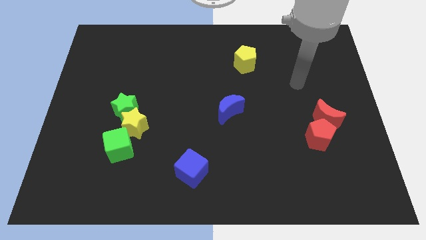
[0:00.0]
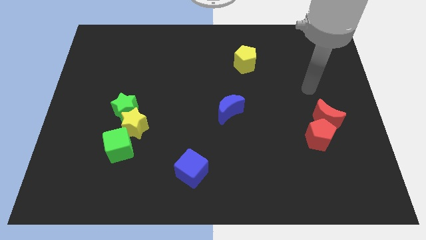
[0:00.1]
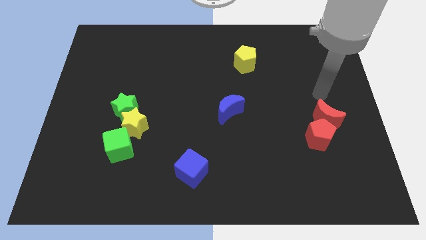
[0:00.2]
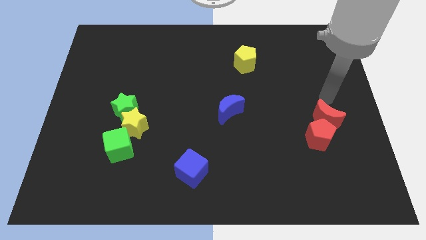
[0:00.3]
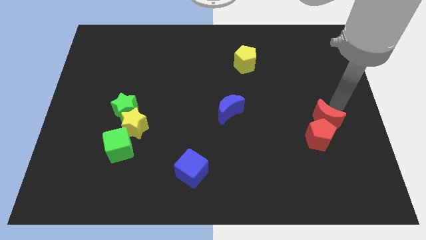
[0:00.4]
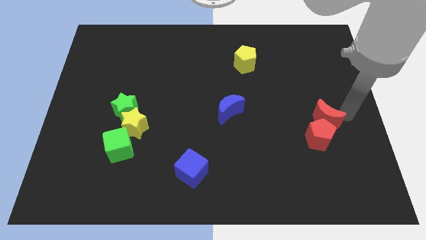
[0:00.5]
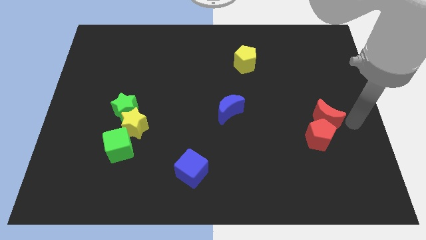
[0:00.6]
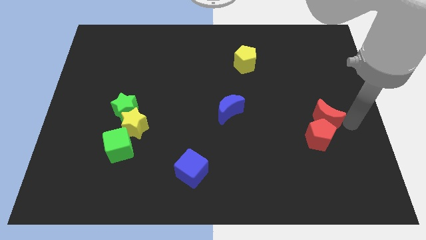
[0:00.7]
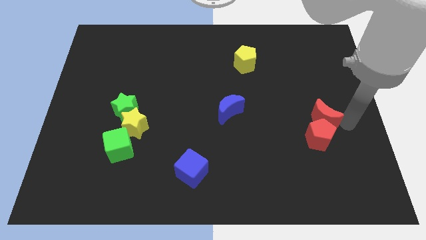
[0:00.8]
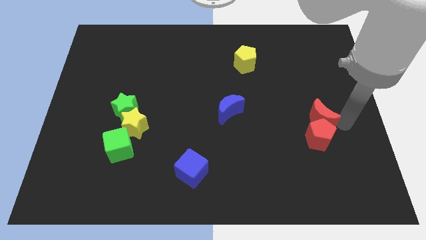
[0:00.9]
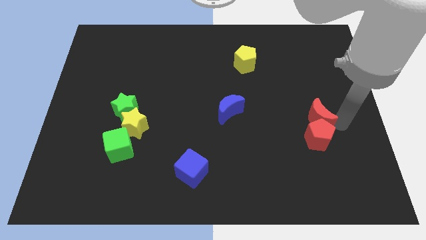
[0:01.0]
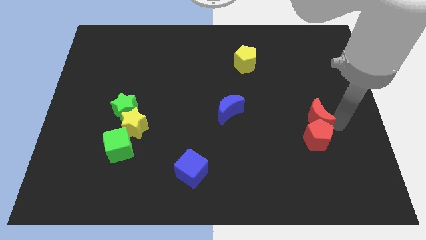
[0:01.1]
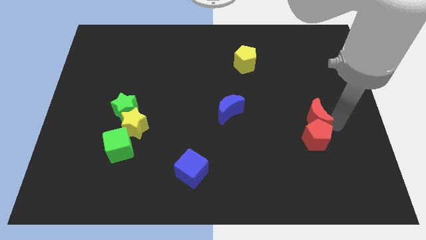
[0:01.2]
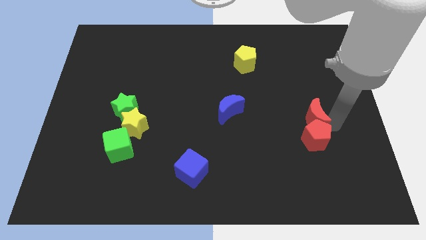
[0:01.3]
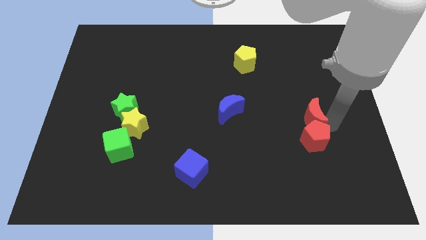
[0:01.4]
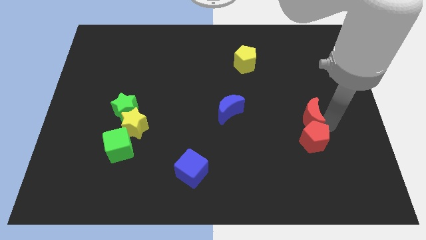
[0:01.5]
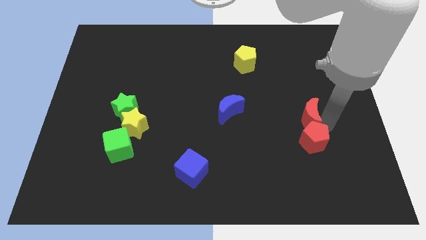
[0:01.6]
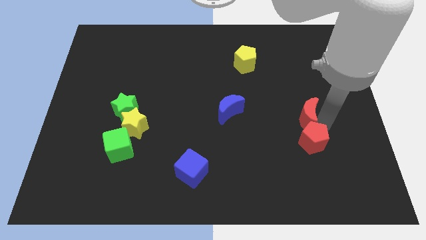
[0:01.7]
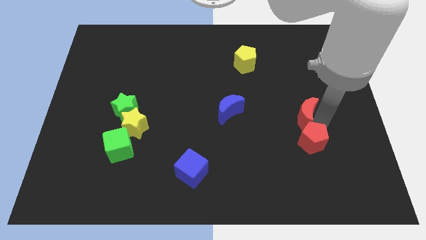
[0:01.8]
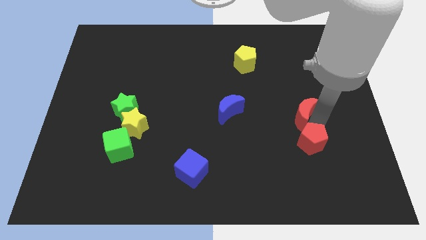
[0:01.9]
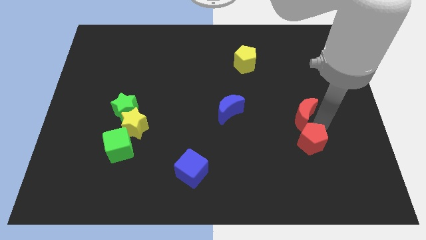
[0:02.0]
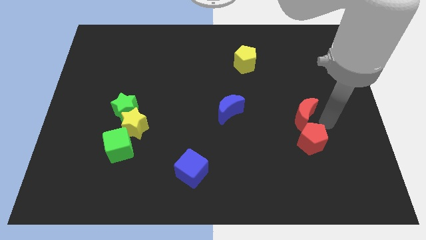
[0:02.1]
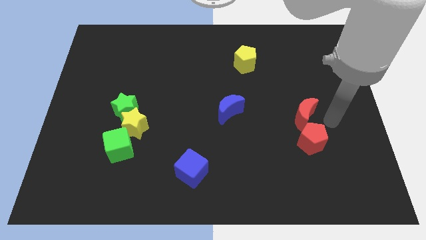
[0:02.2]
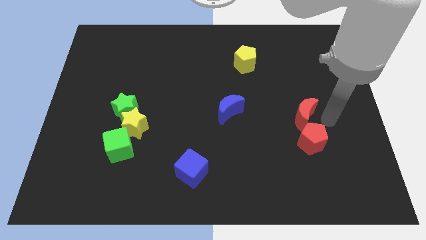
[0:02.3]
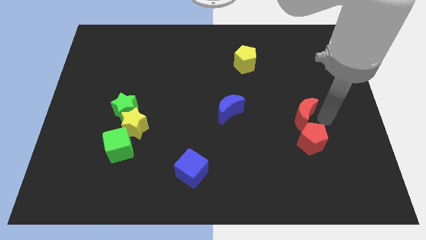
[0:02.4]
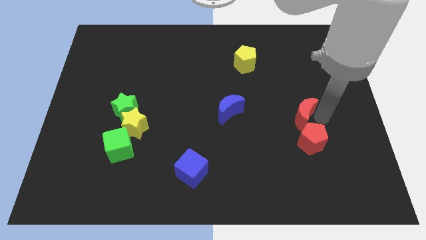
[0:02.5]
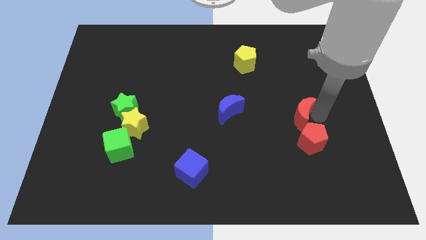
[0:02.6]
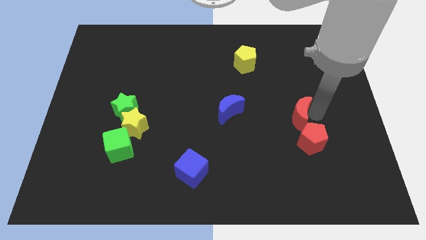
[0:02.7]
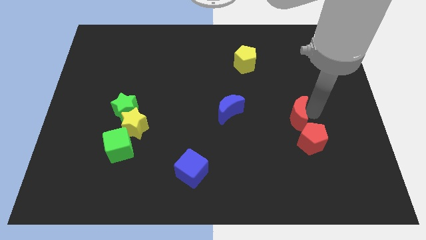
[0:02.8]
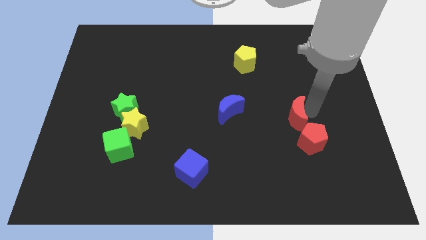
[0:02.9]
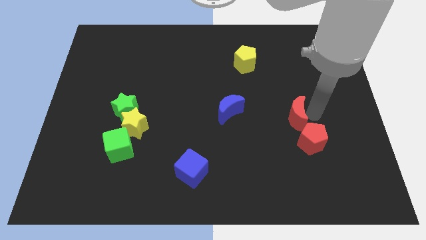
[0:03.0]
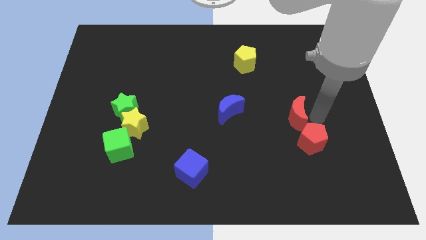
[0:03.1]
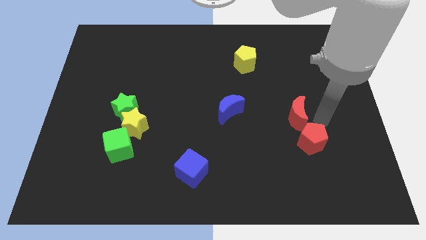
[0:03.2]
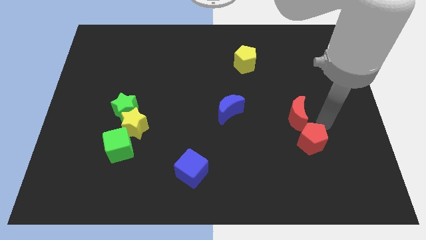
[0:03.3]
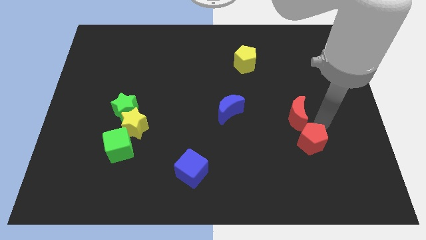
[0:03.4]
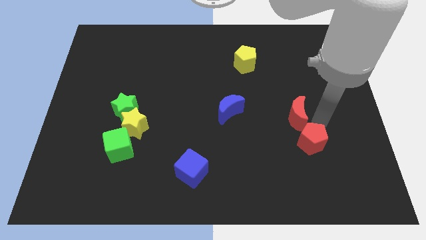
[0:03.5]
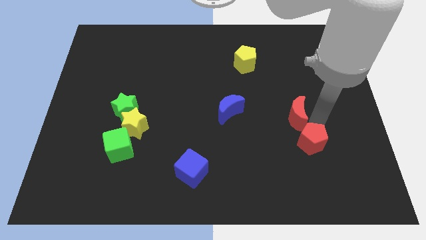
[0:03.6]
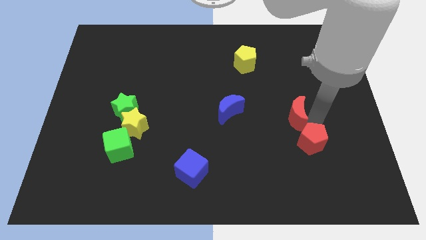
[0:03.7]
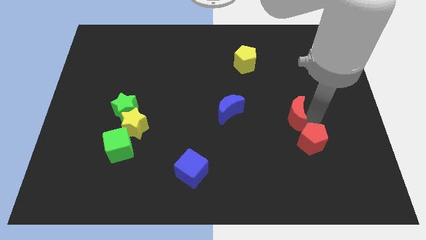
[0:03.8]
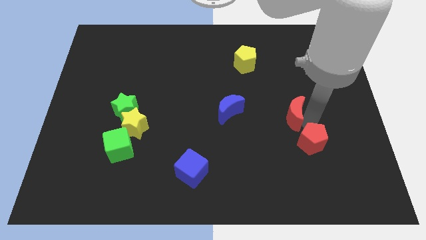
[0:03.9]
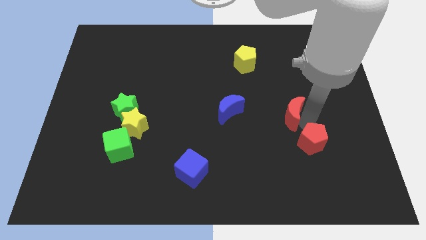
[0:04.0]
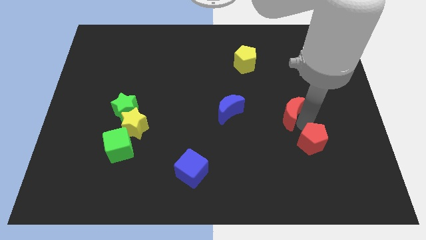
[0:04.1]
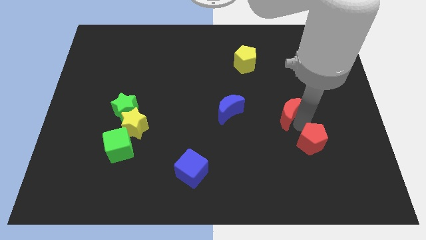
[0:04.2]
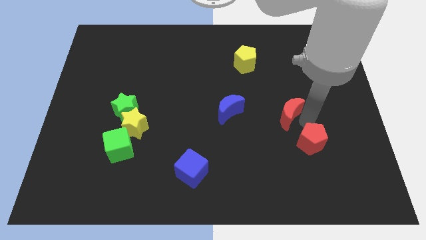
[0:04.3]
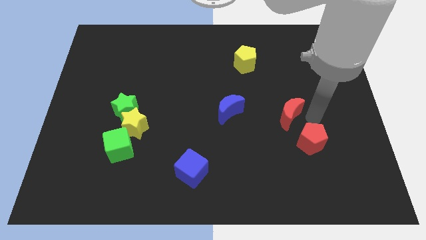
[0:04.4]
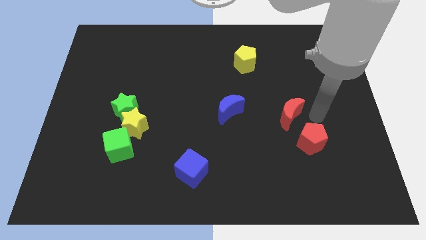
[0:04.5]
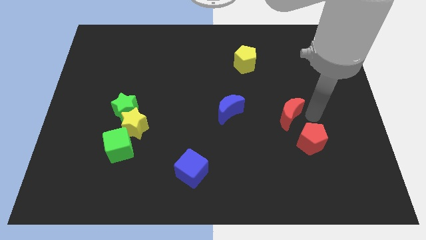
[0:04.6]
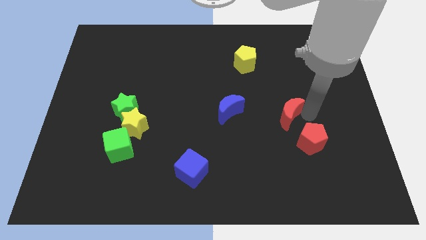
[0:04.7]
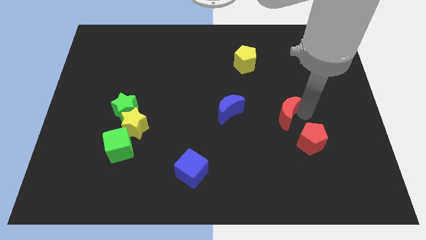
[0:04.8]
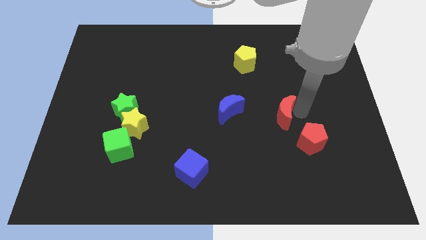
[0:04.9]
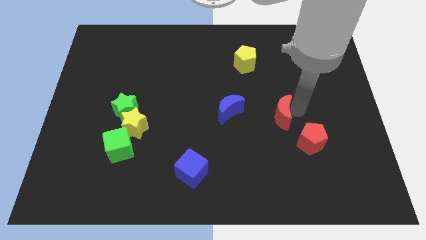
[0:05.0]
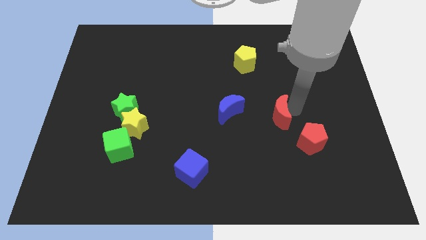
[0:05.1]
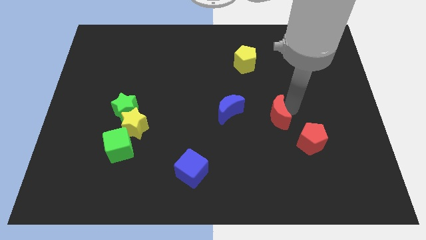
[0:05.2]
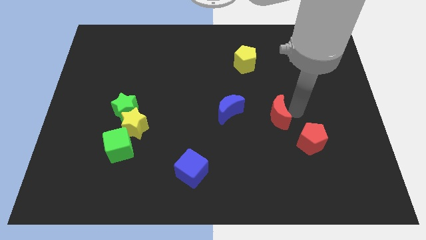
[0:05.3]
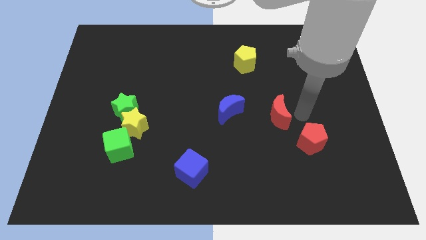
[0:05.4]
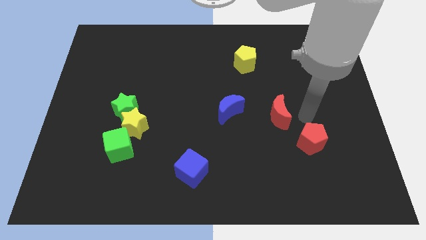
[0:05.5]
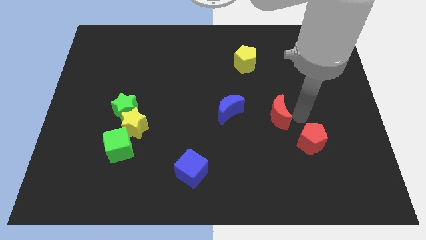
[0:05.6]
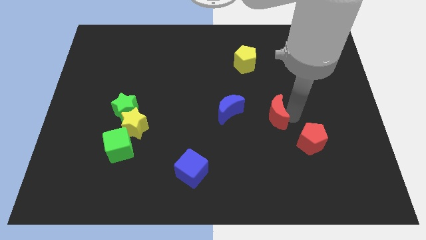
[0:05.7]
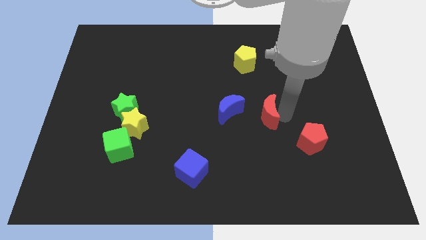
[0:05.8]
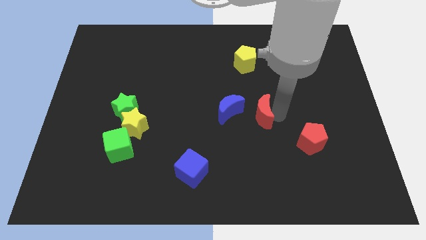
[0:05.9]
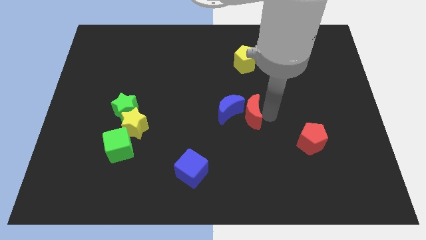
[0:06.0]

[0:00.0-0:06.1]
slide the red moon close to the blue moon

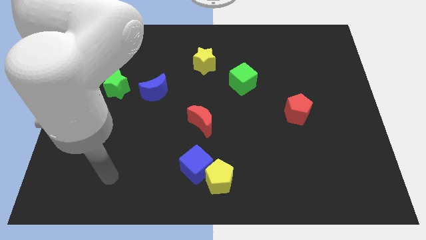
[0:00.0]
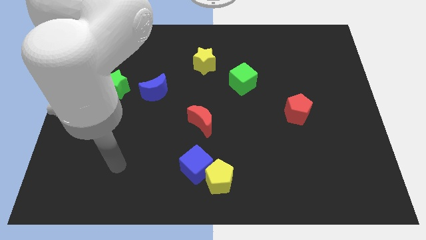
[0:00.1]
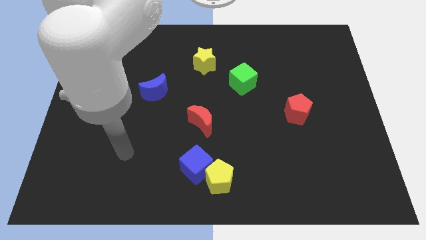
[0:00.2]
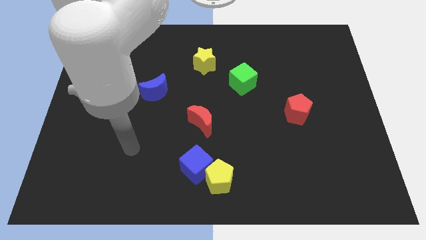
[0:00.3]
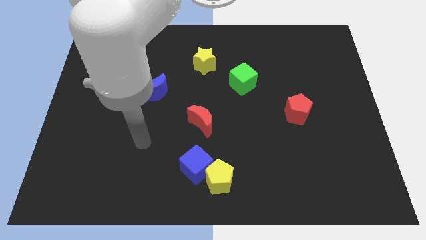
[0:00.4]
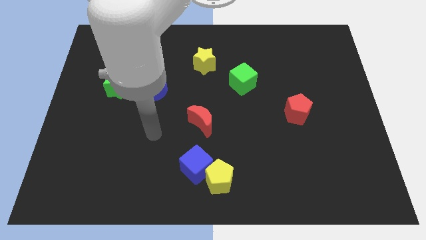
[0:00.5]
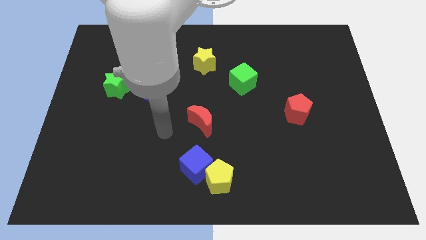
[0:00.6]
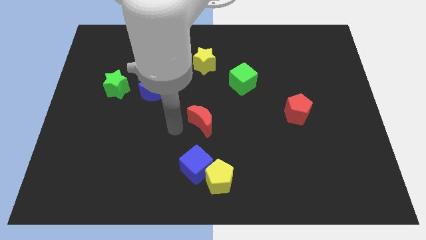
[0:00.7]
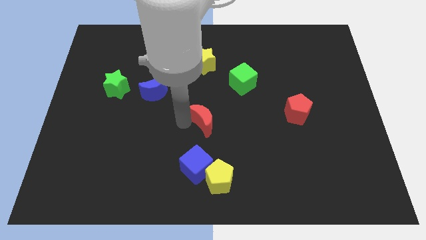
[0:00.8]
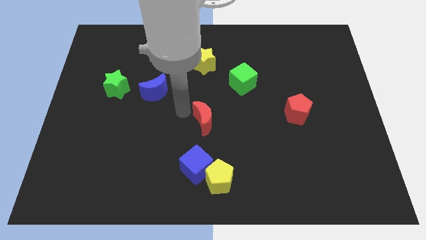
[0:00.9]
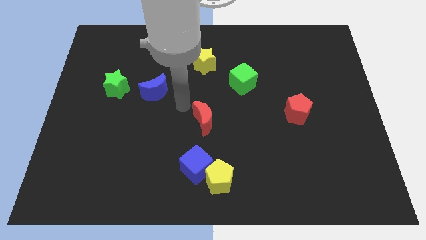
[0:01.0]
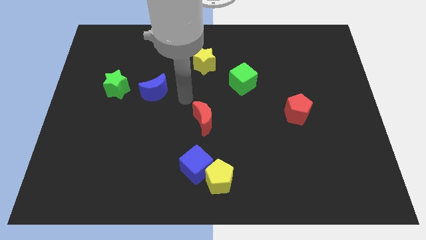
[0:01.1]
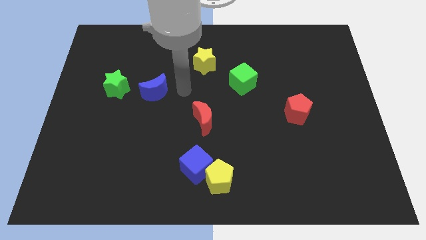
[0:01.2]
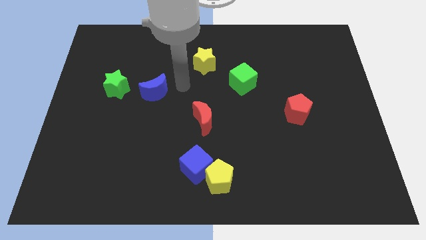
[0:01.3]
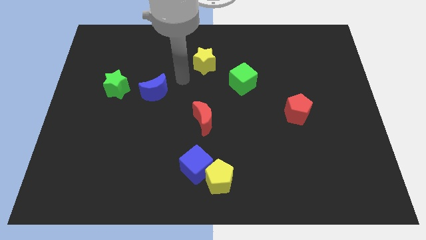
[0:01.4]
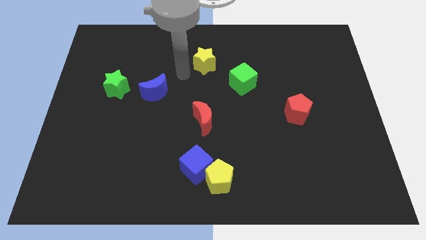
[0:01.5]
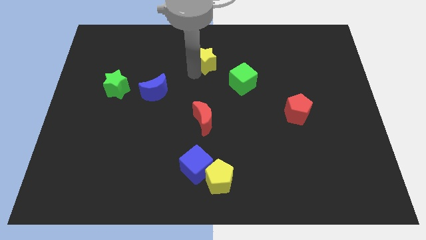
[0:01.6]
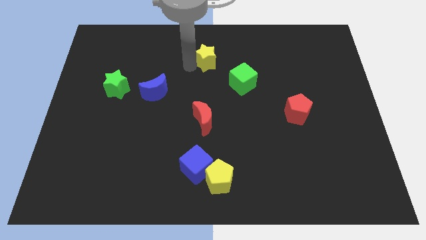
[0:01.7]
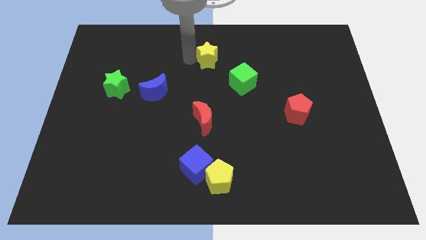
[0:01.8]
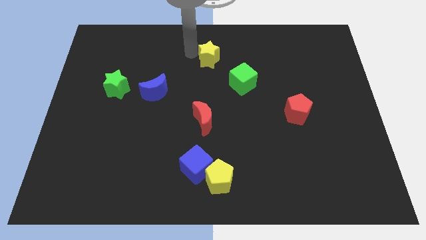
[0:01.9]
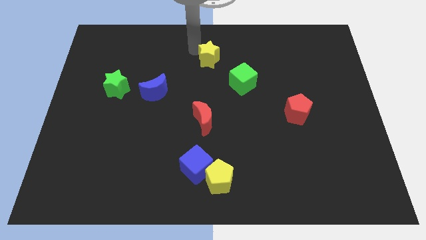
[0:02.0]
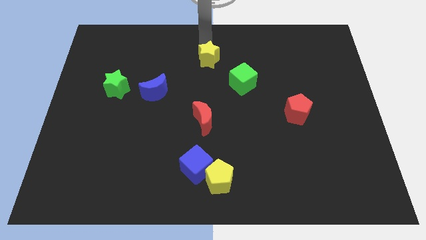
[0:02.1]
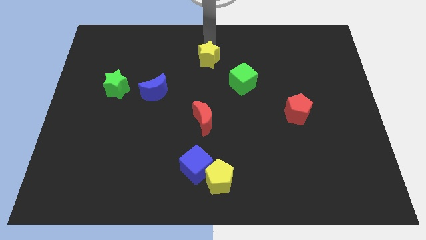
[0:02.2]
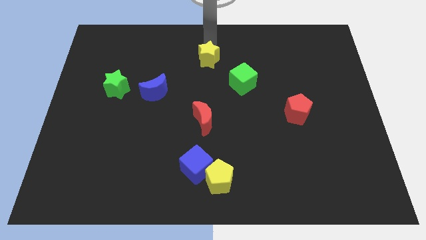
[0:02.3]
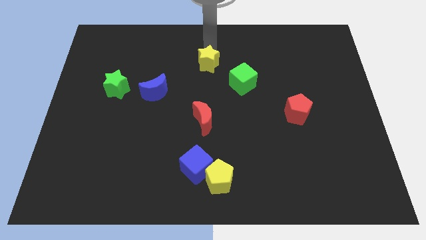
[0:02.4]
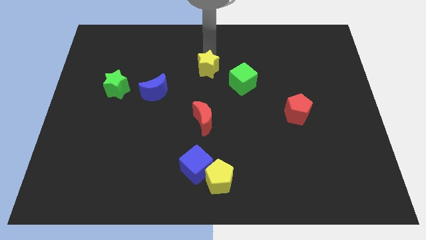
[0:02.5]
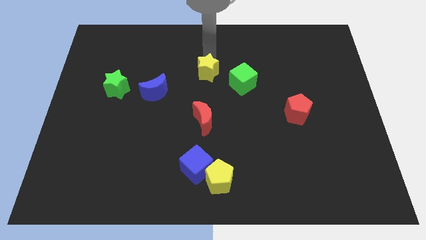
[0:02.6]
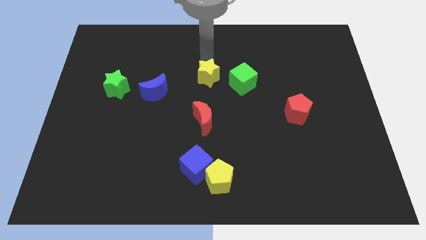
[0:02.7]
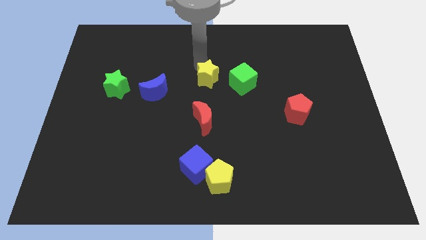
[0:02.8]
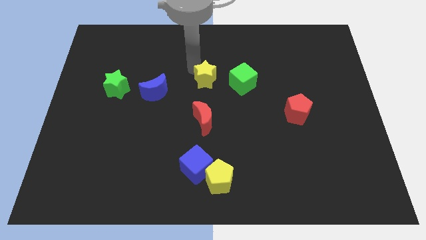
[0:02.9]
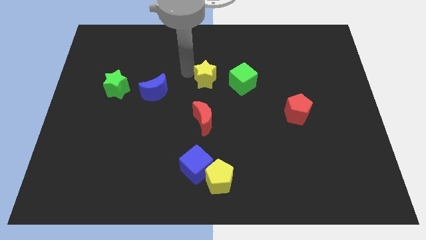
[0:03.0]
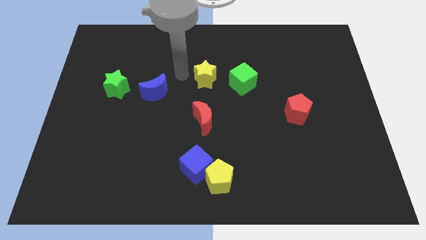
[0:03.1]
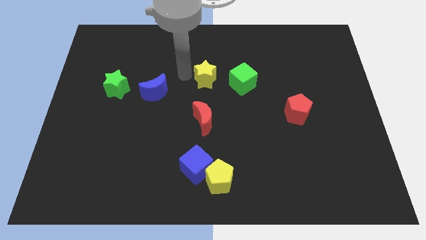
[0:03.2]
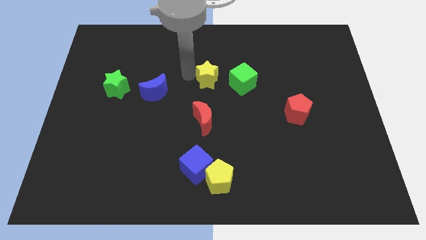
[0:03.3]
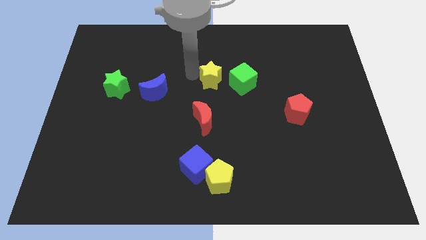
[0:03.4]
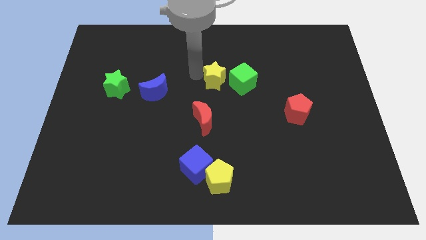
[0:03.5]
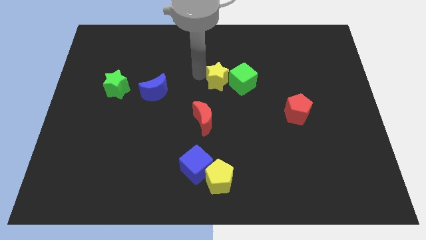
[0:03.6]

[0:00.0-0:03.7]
move the yellow star towards the green cube
